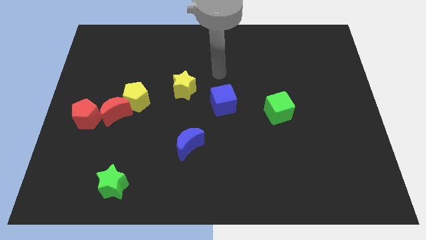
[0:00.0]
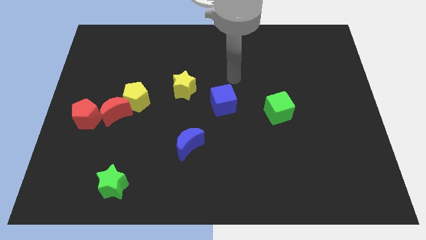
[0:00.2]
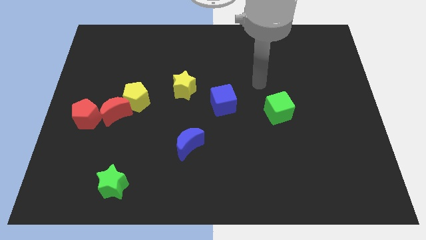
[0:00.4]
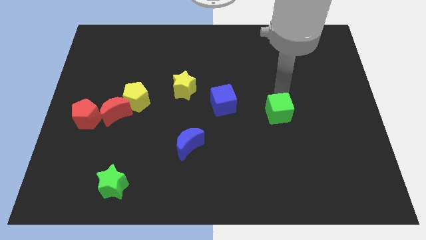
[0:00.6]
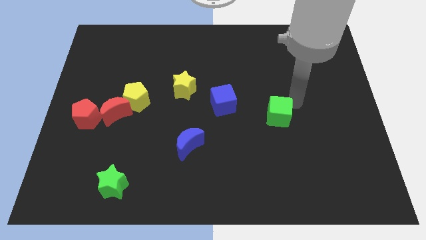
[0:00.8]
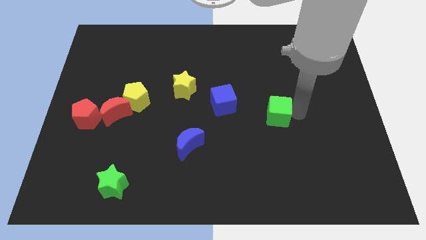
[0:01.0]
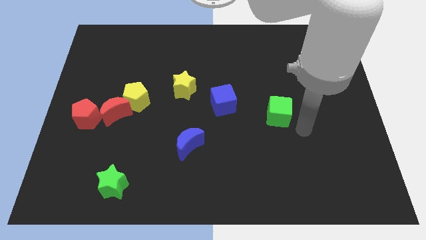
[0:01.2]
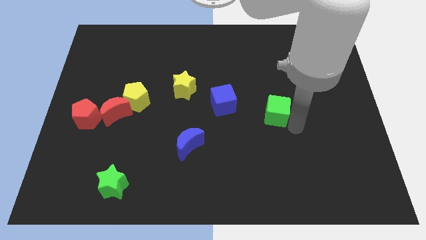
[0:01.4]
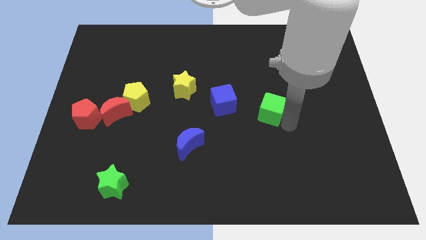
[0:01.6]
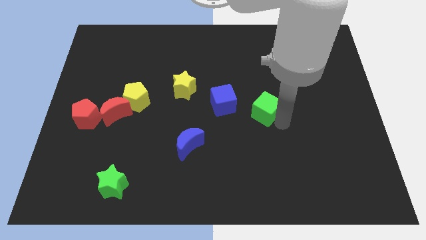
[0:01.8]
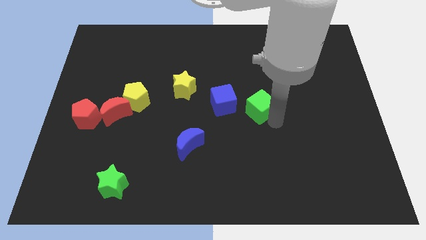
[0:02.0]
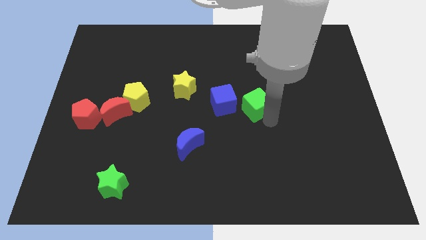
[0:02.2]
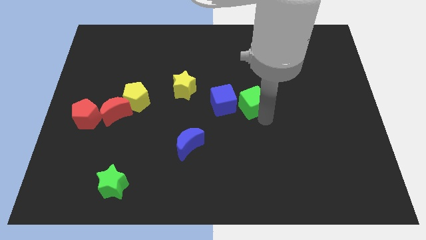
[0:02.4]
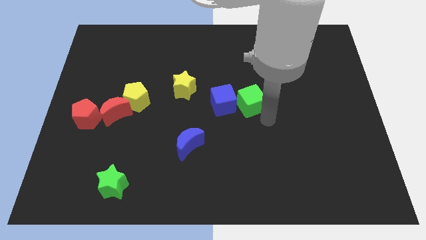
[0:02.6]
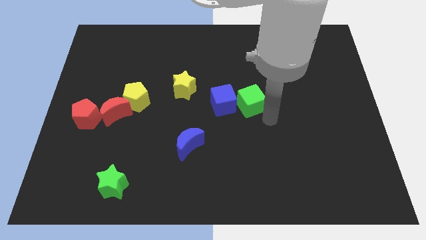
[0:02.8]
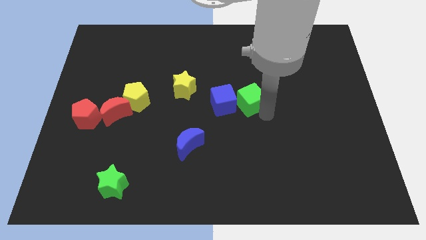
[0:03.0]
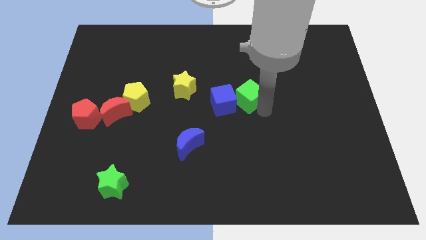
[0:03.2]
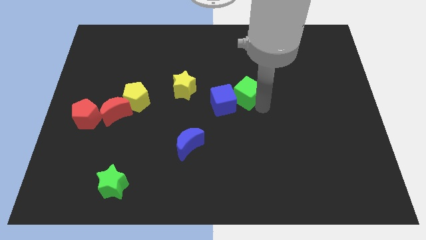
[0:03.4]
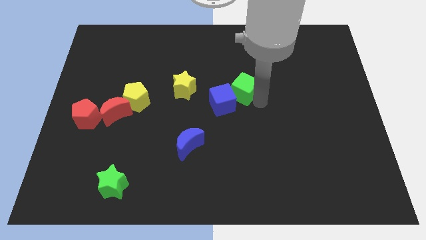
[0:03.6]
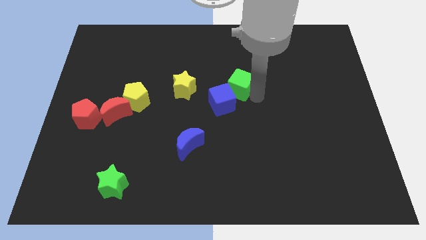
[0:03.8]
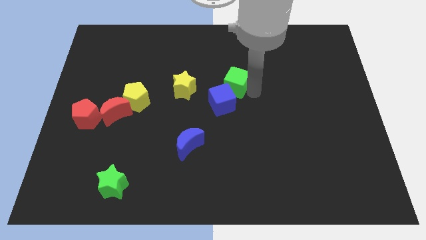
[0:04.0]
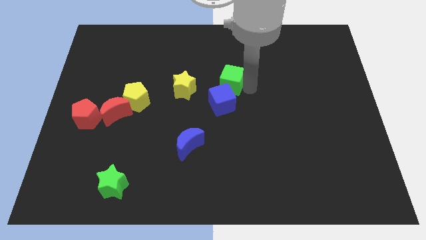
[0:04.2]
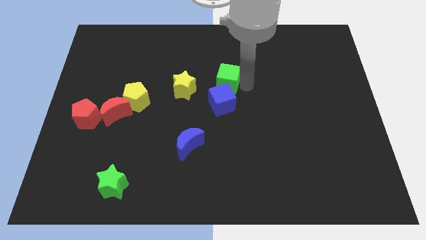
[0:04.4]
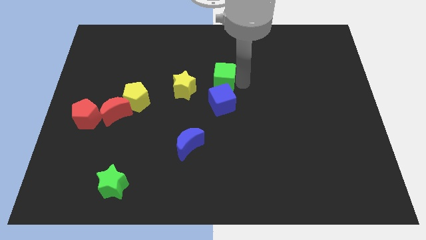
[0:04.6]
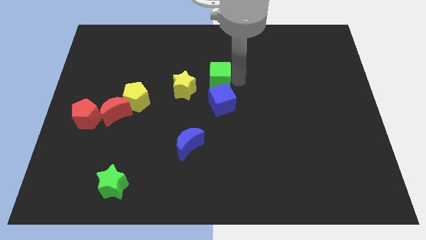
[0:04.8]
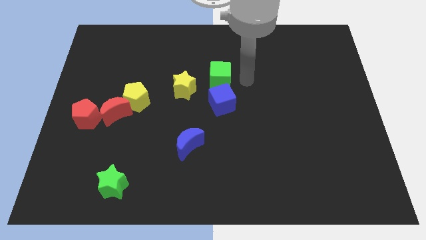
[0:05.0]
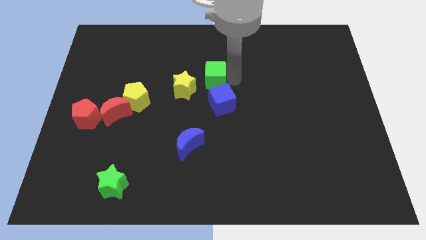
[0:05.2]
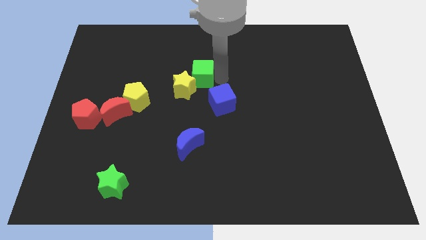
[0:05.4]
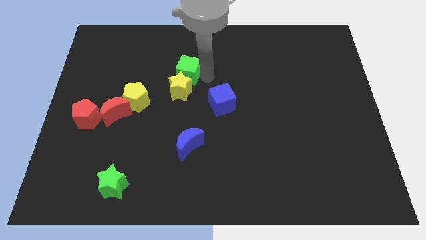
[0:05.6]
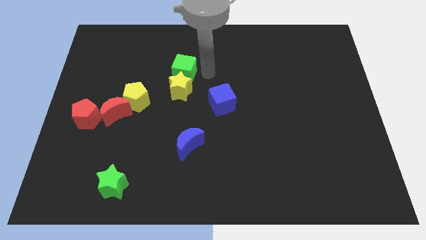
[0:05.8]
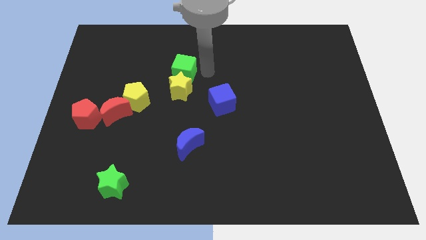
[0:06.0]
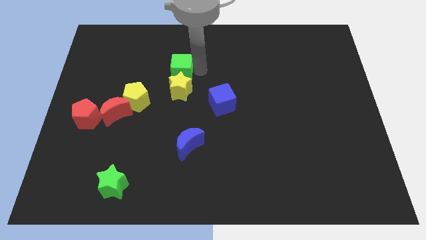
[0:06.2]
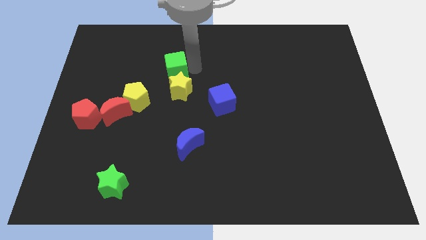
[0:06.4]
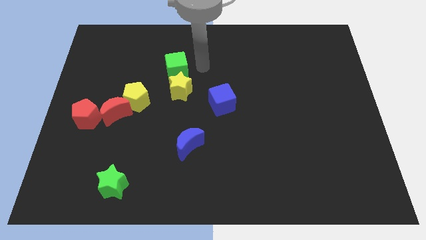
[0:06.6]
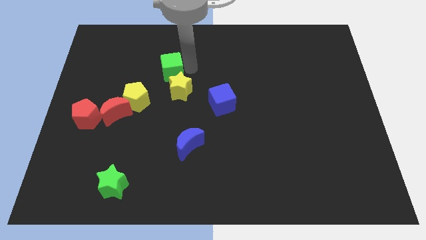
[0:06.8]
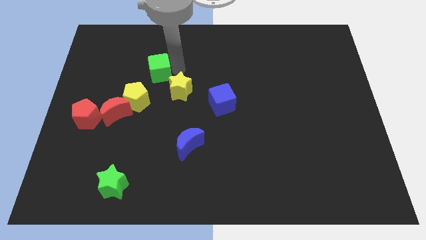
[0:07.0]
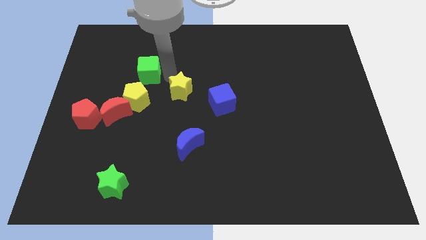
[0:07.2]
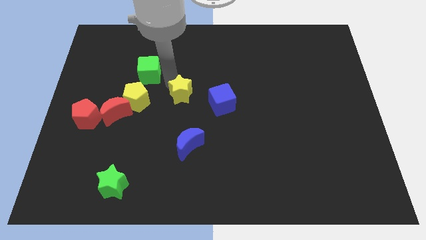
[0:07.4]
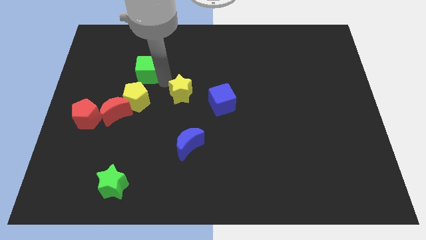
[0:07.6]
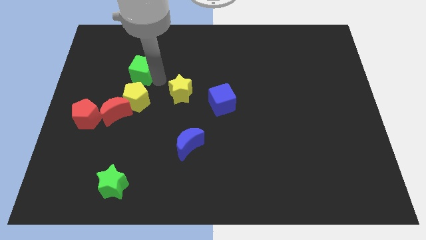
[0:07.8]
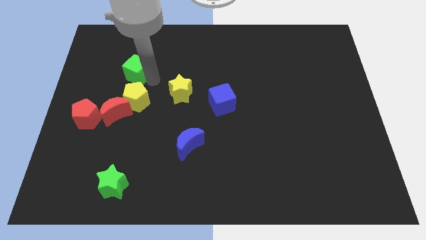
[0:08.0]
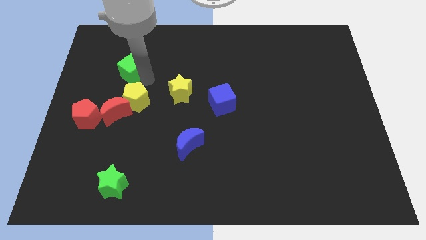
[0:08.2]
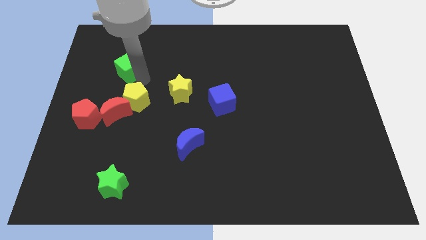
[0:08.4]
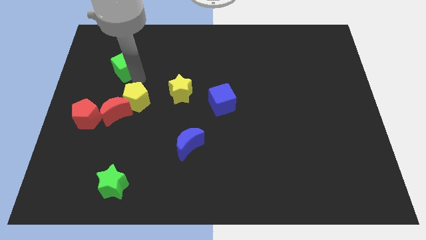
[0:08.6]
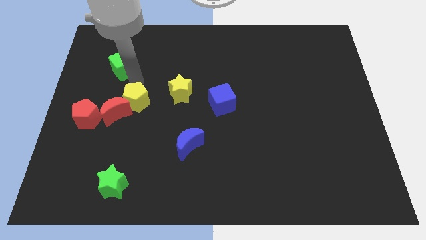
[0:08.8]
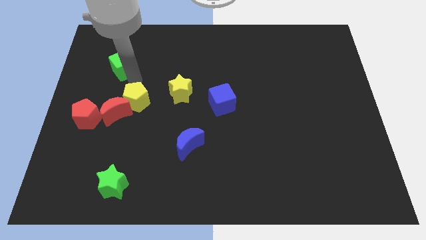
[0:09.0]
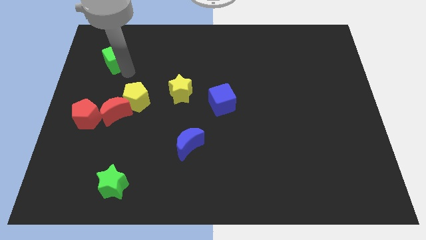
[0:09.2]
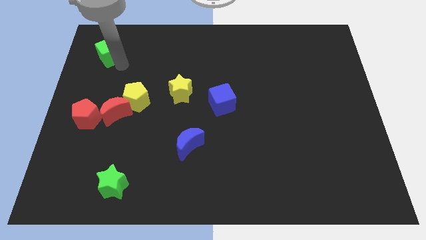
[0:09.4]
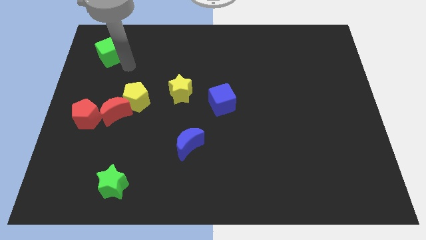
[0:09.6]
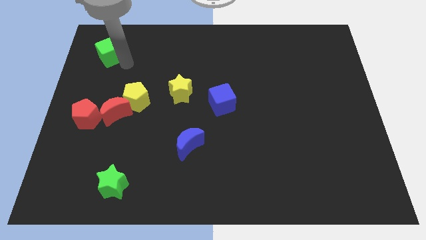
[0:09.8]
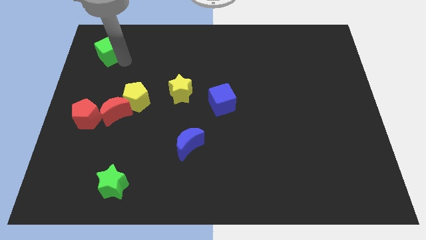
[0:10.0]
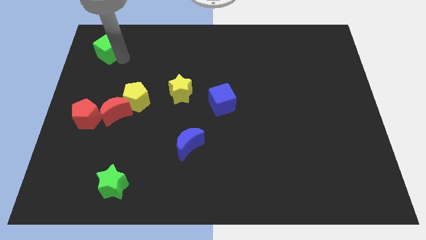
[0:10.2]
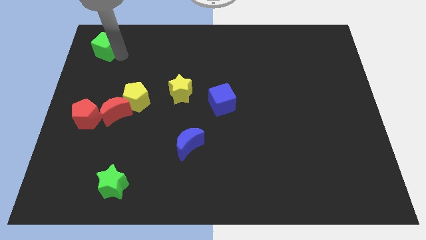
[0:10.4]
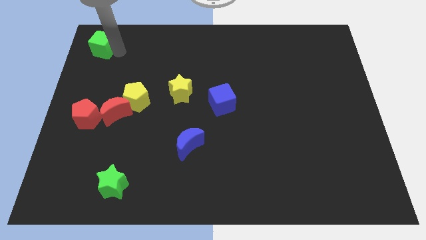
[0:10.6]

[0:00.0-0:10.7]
move the green cube to the top left of the board

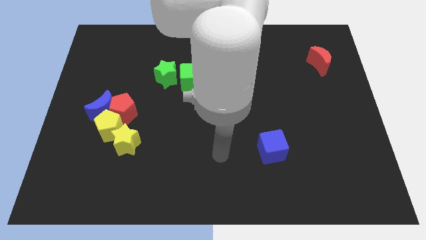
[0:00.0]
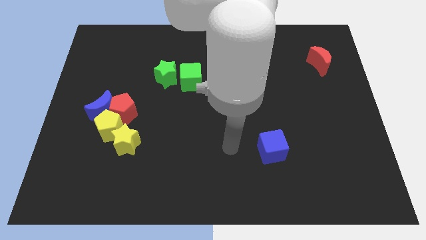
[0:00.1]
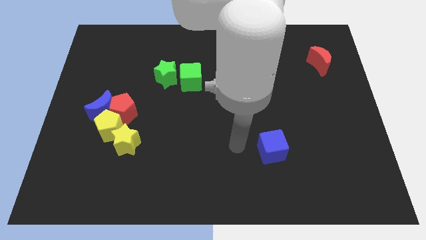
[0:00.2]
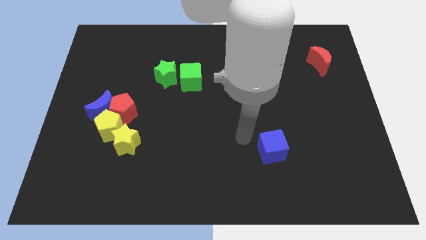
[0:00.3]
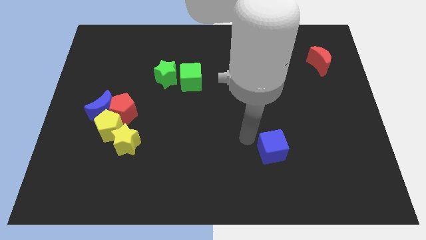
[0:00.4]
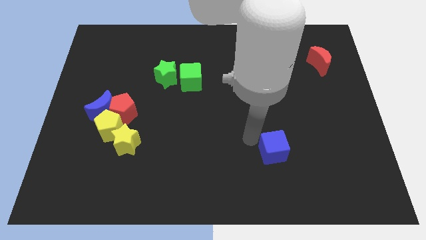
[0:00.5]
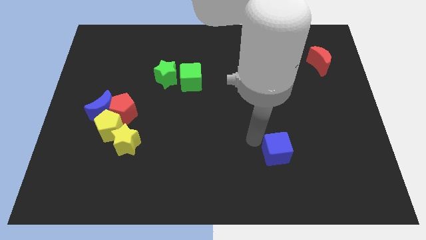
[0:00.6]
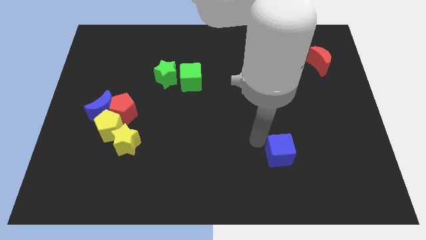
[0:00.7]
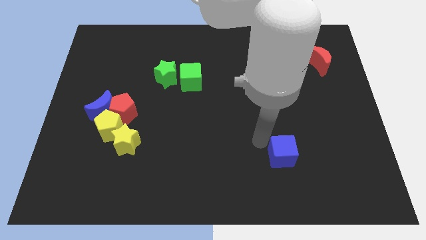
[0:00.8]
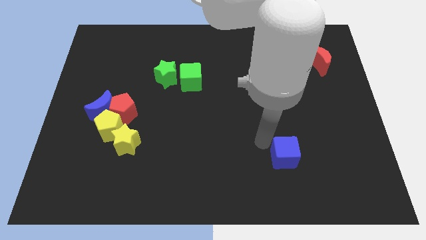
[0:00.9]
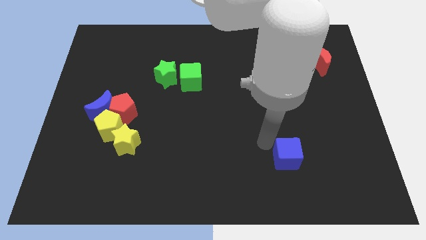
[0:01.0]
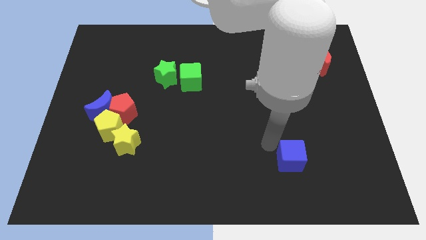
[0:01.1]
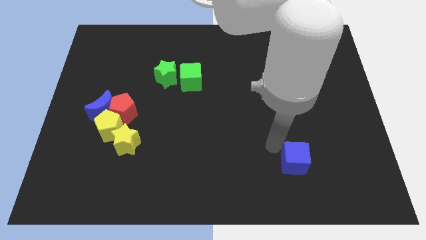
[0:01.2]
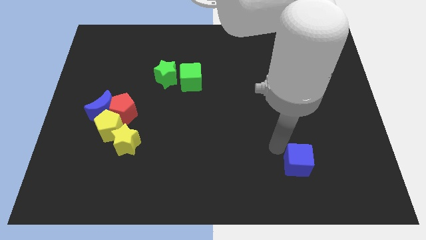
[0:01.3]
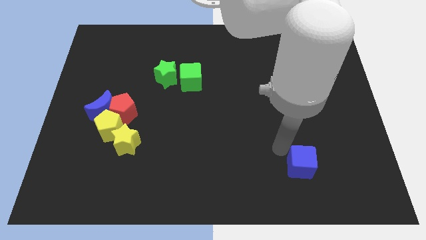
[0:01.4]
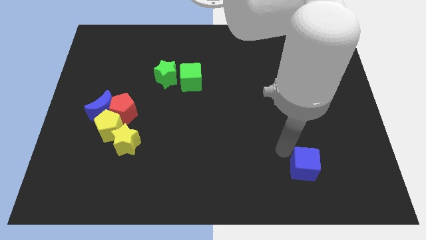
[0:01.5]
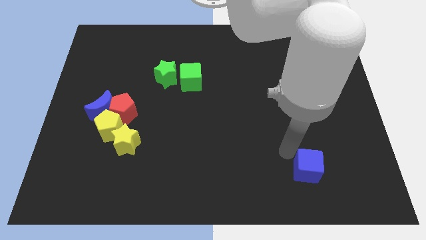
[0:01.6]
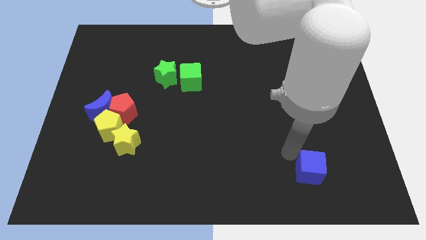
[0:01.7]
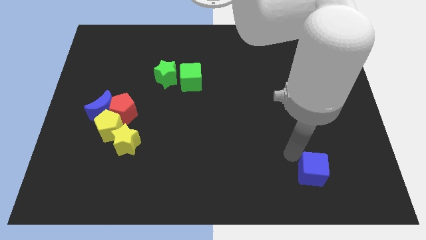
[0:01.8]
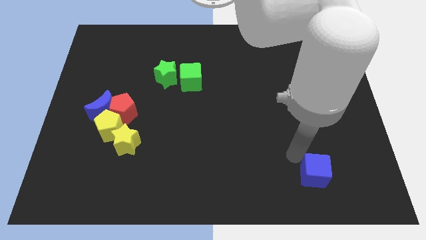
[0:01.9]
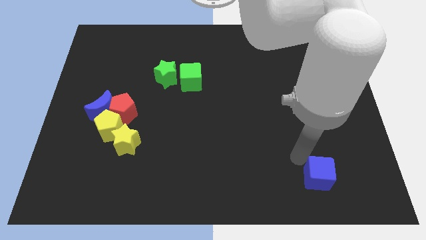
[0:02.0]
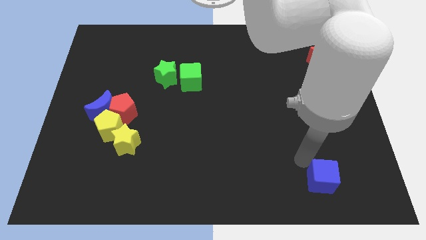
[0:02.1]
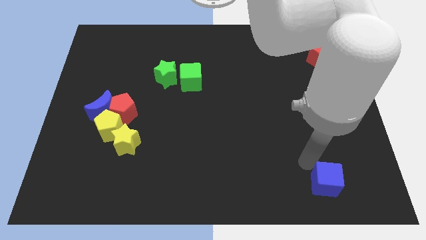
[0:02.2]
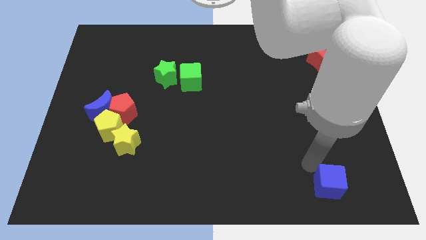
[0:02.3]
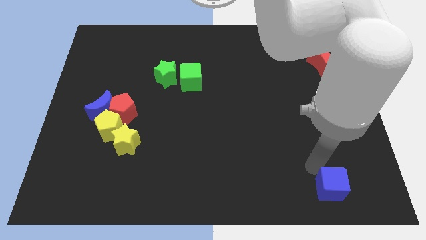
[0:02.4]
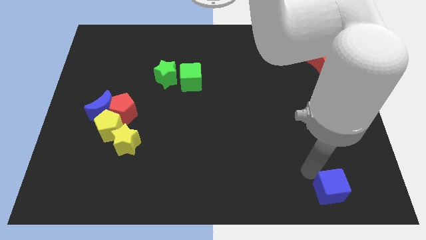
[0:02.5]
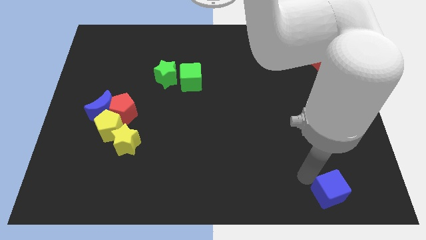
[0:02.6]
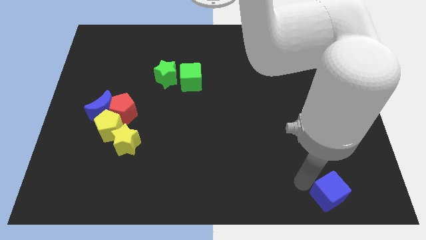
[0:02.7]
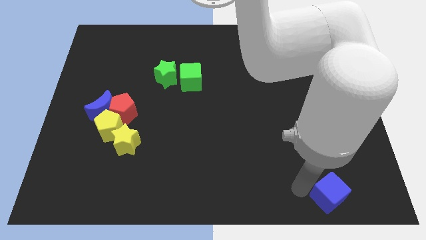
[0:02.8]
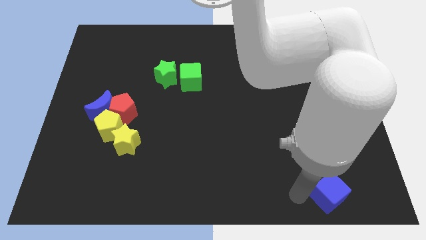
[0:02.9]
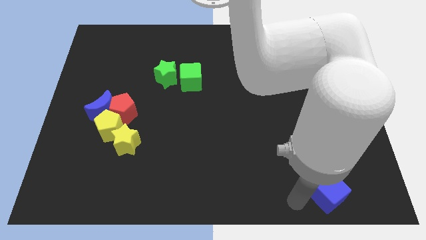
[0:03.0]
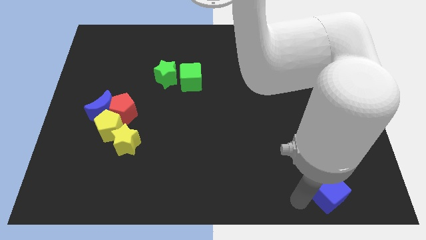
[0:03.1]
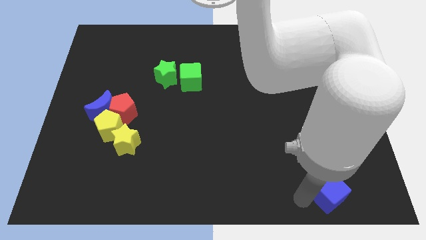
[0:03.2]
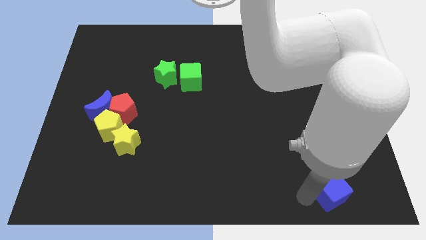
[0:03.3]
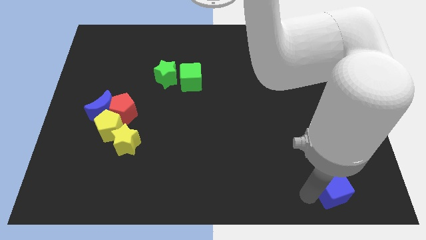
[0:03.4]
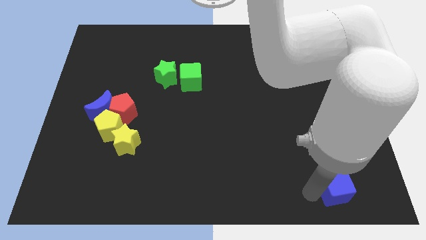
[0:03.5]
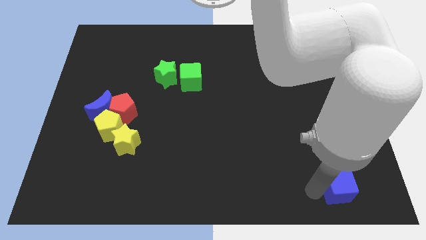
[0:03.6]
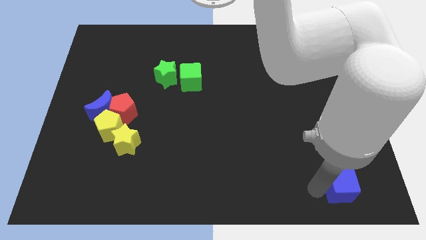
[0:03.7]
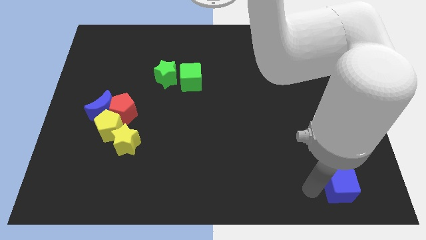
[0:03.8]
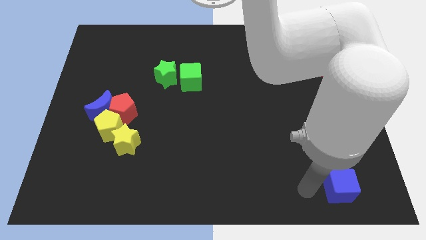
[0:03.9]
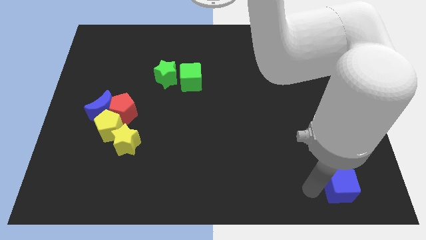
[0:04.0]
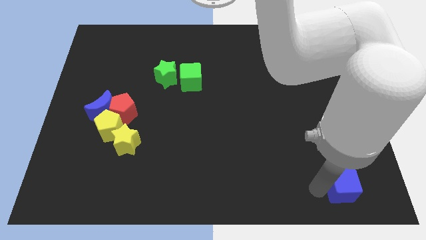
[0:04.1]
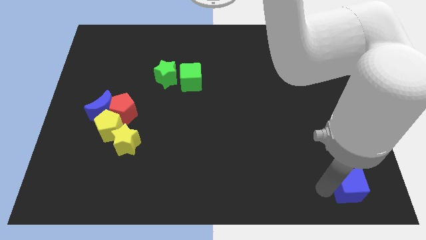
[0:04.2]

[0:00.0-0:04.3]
slide the blue cube to the bottom right
